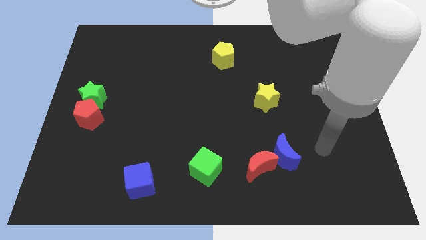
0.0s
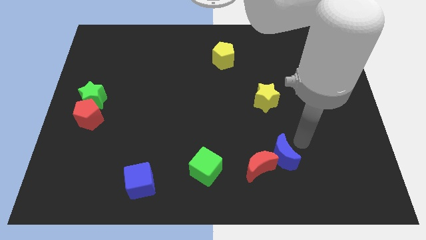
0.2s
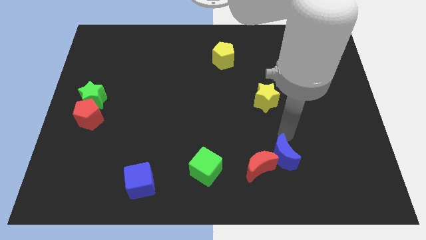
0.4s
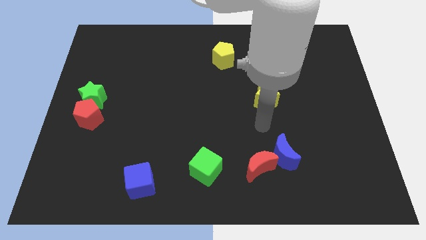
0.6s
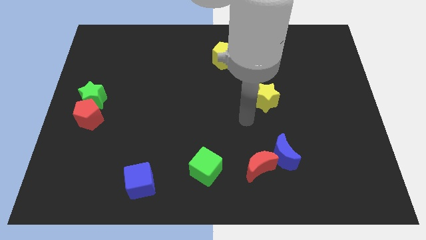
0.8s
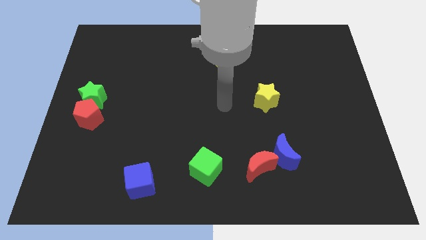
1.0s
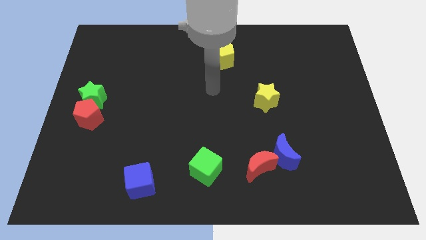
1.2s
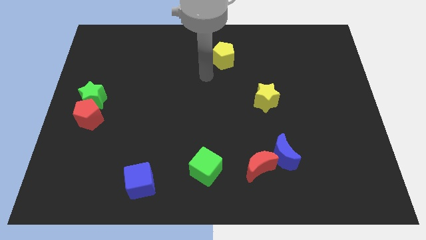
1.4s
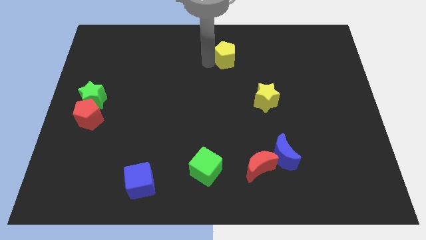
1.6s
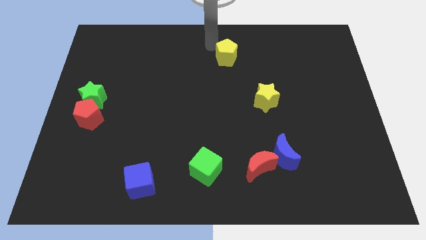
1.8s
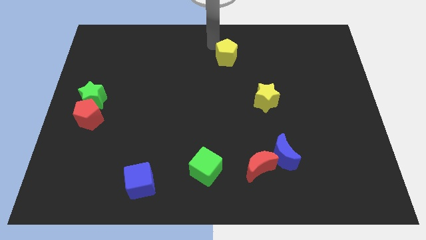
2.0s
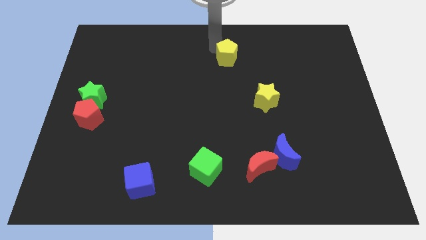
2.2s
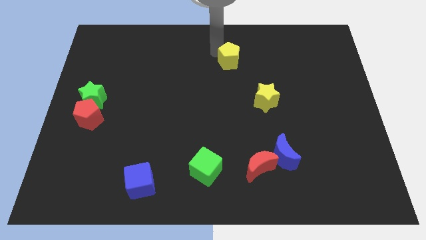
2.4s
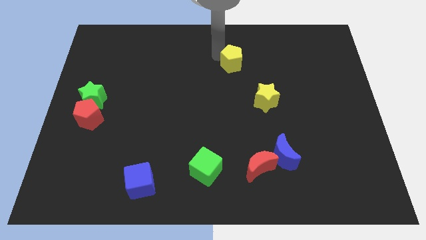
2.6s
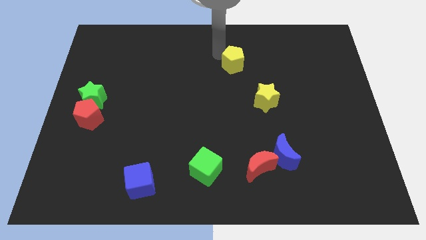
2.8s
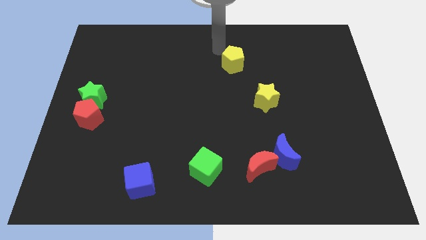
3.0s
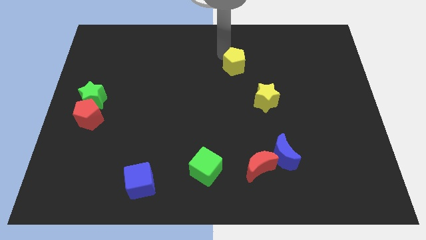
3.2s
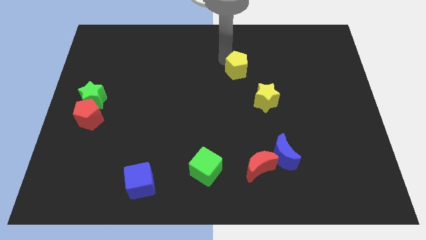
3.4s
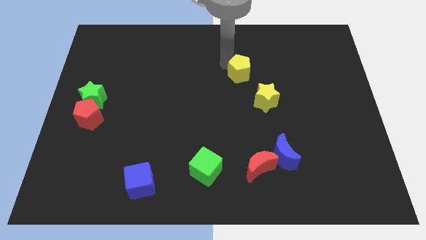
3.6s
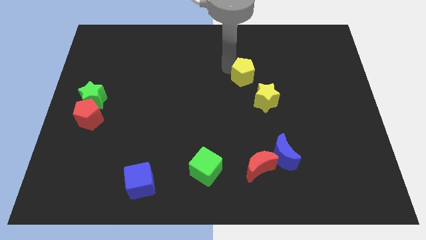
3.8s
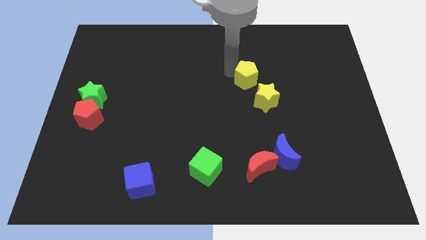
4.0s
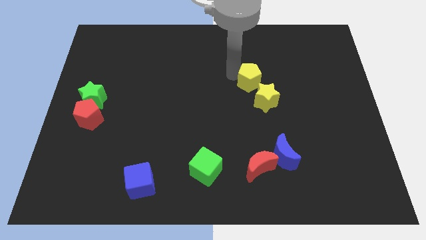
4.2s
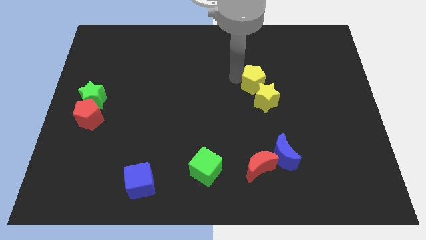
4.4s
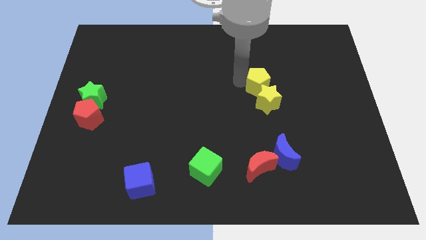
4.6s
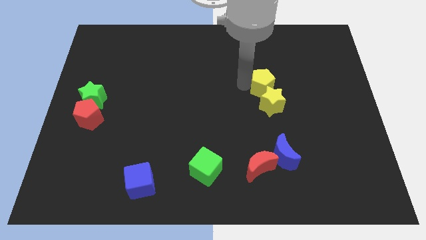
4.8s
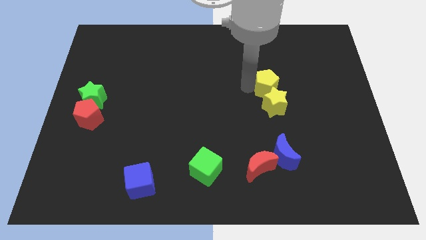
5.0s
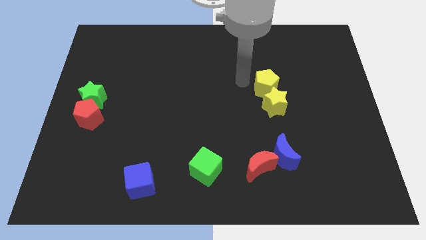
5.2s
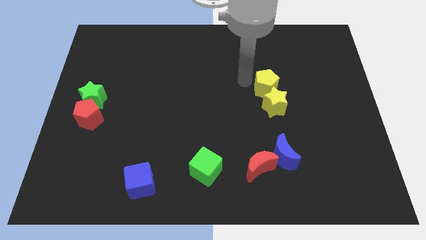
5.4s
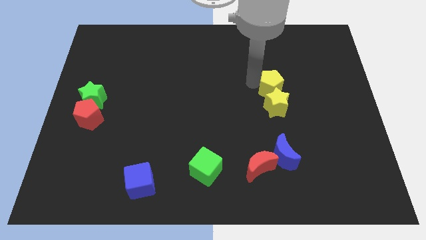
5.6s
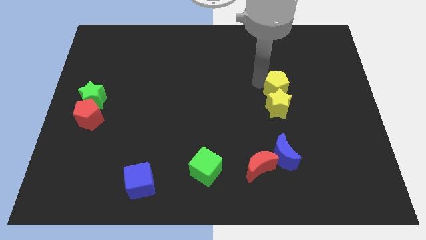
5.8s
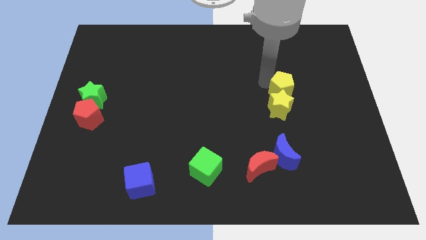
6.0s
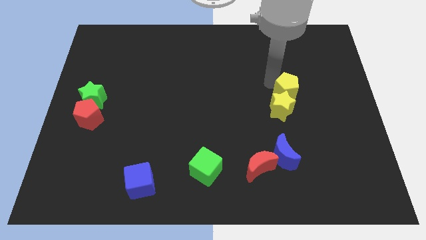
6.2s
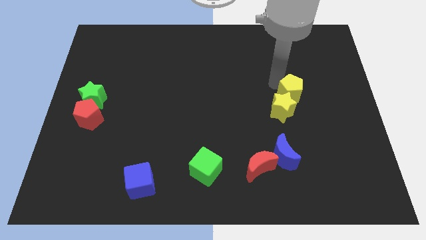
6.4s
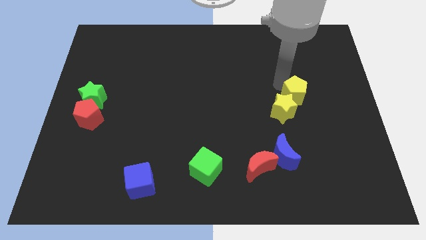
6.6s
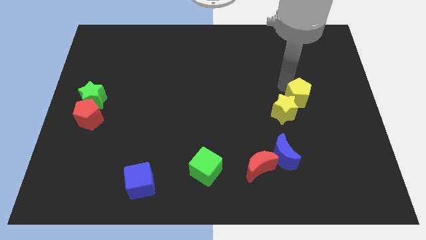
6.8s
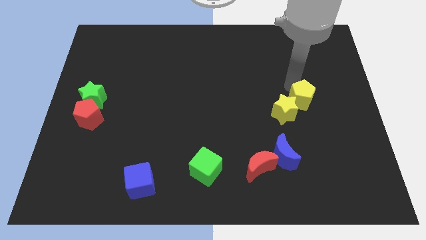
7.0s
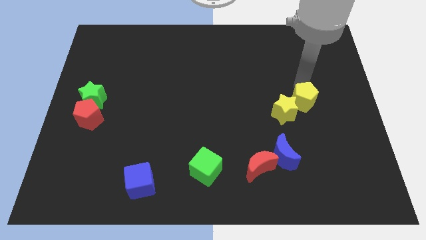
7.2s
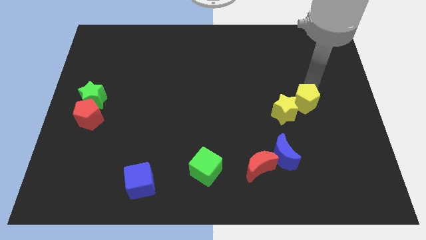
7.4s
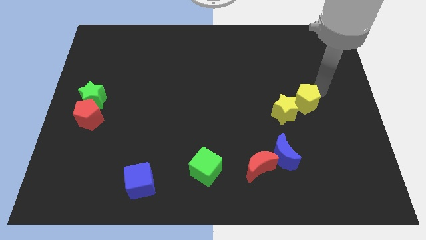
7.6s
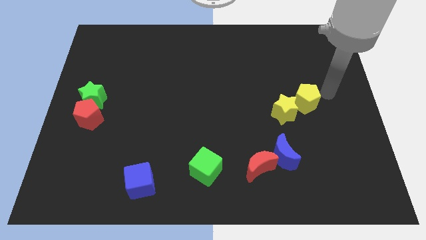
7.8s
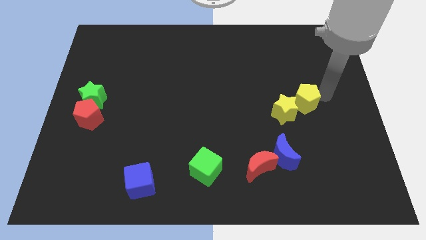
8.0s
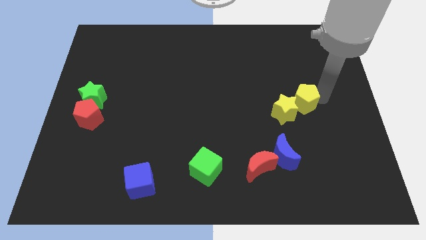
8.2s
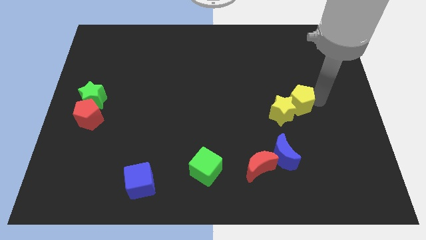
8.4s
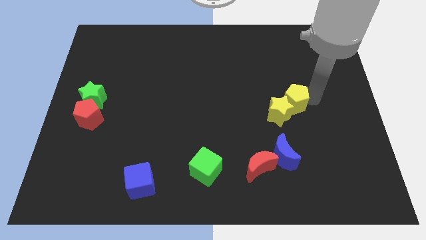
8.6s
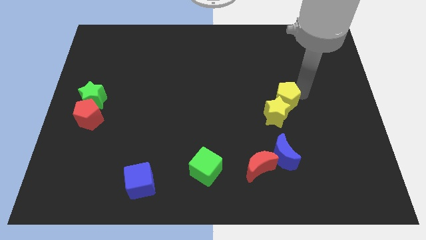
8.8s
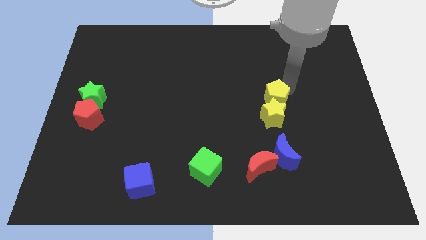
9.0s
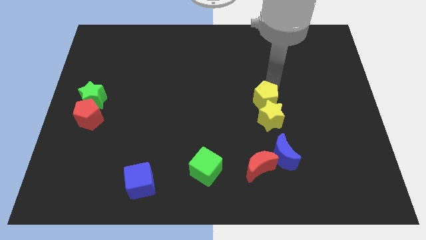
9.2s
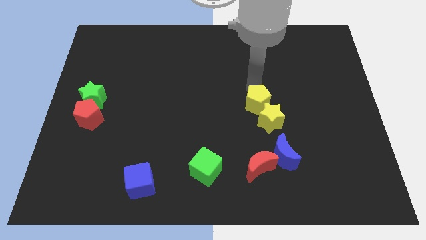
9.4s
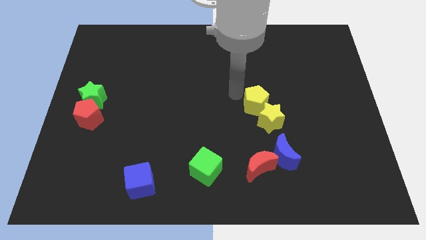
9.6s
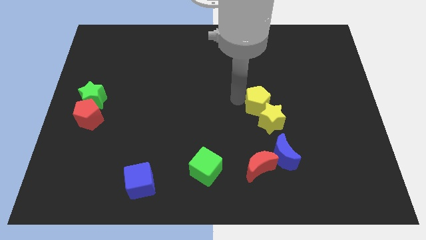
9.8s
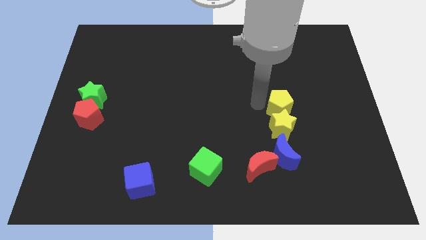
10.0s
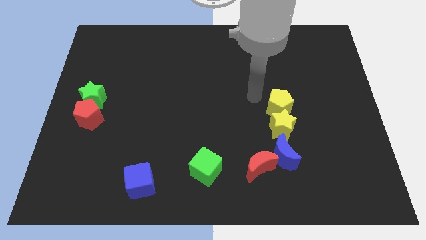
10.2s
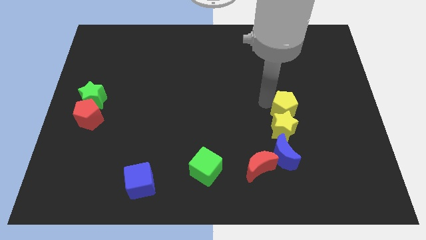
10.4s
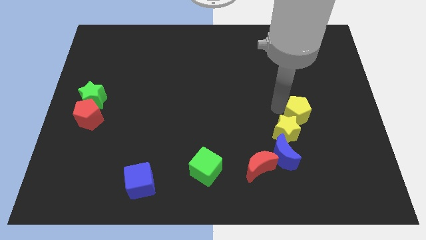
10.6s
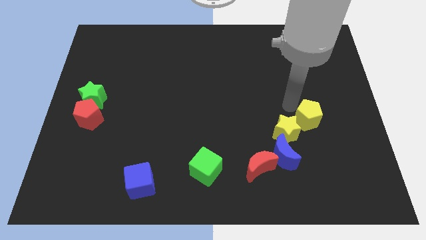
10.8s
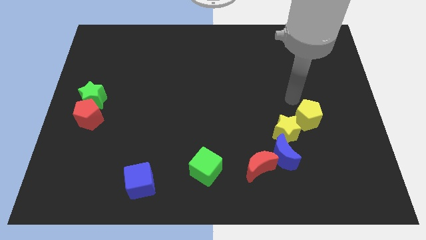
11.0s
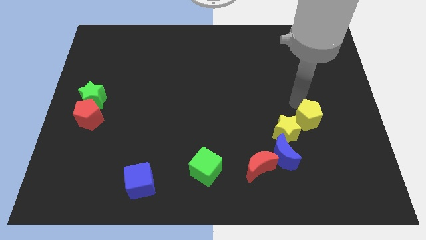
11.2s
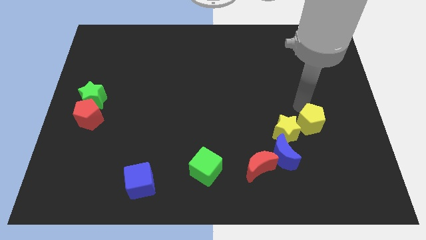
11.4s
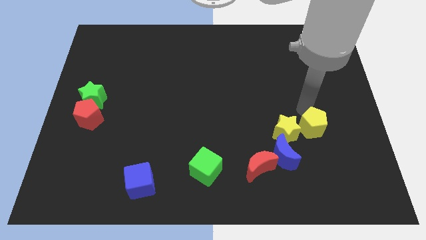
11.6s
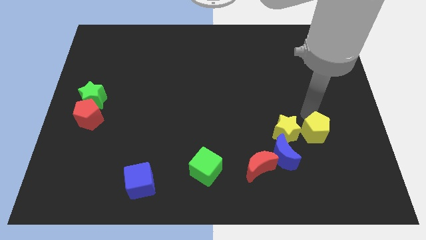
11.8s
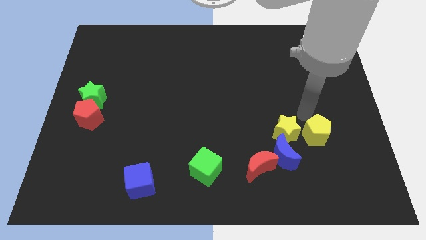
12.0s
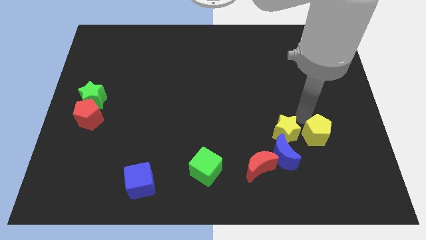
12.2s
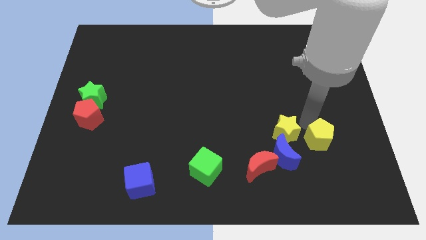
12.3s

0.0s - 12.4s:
push the yellow pentagon right of the blue moon

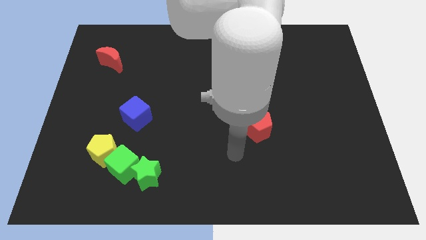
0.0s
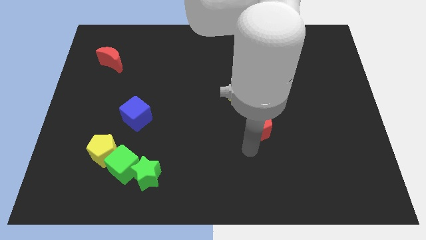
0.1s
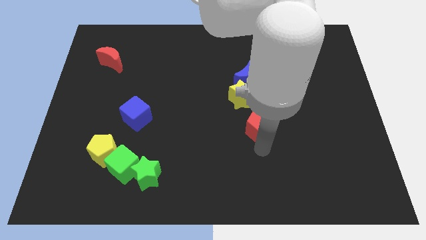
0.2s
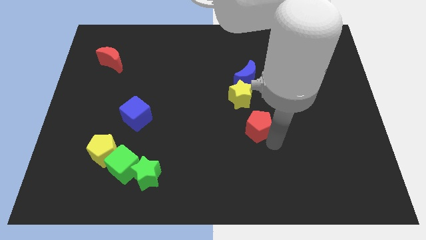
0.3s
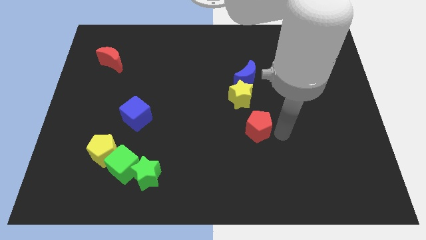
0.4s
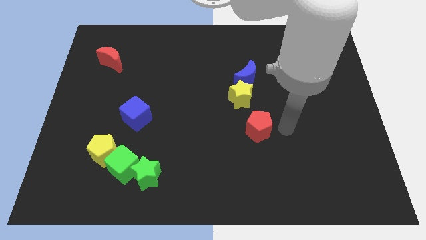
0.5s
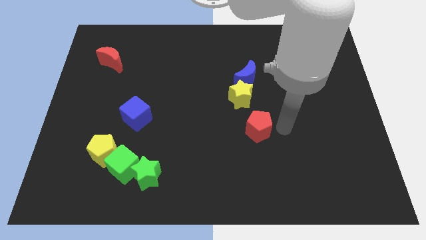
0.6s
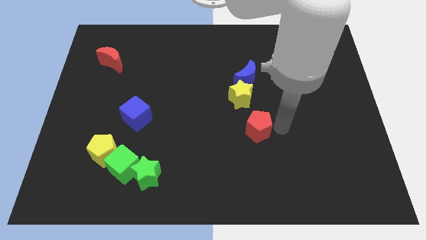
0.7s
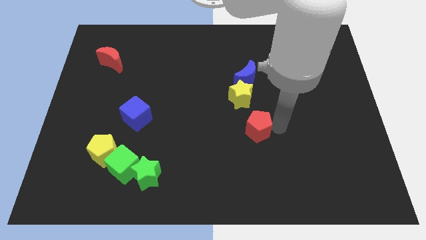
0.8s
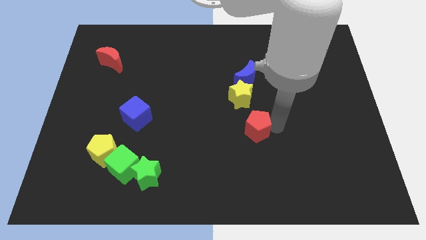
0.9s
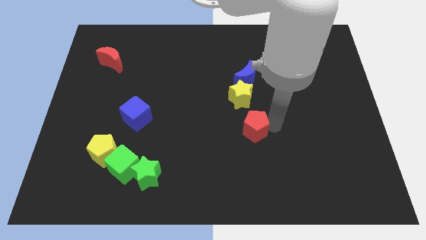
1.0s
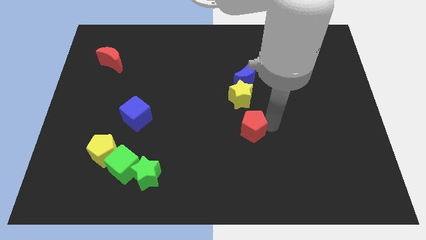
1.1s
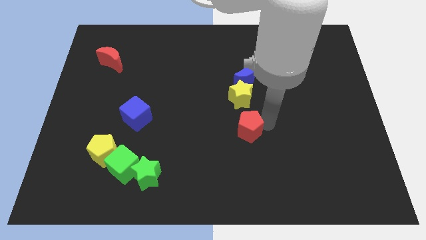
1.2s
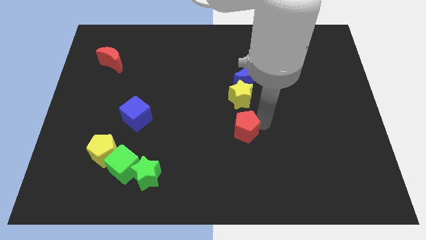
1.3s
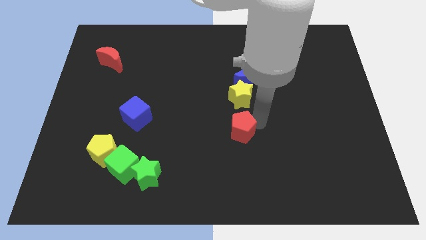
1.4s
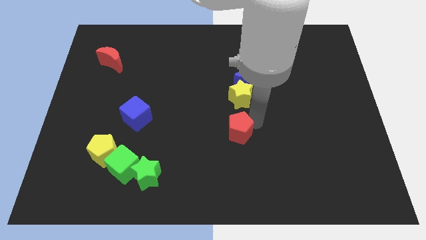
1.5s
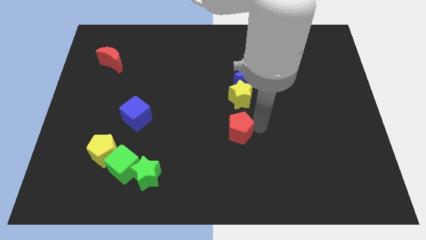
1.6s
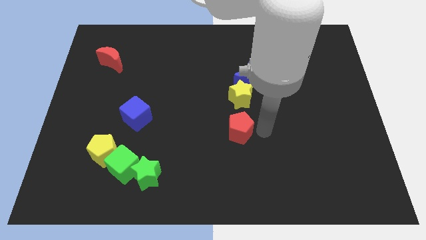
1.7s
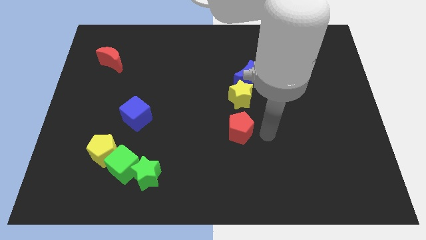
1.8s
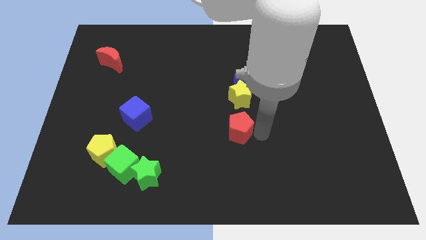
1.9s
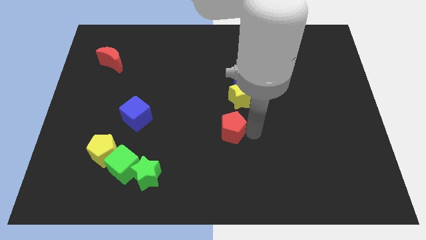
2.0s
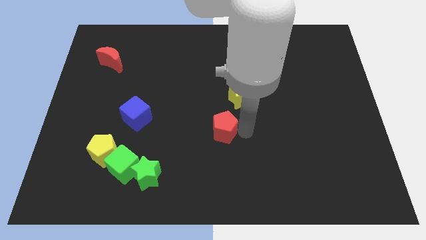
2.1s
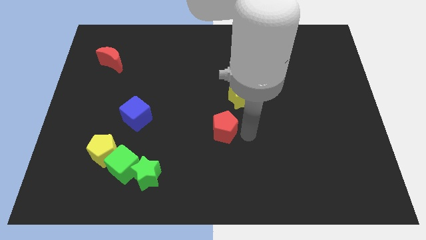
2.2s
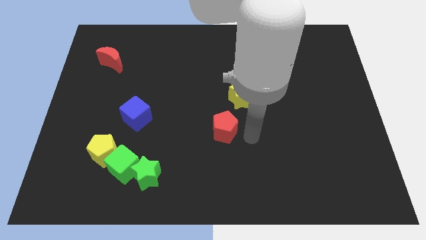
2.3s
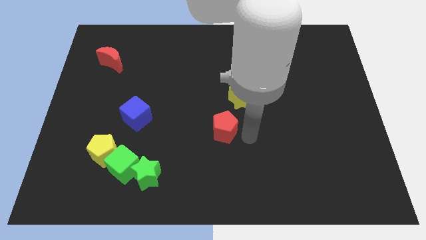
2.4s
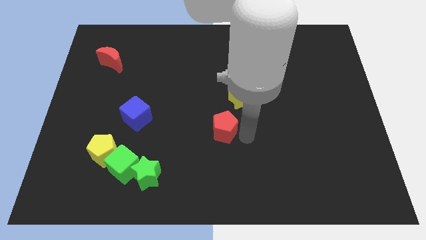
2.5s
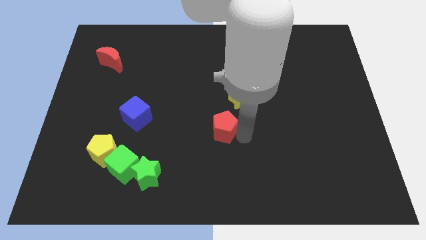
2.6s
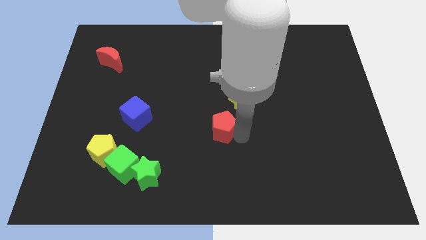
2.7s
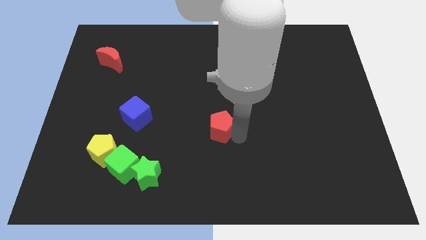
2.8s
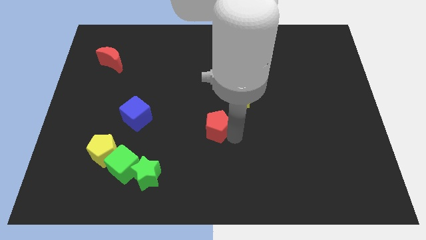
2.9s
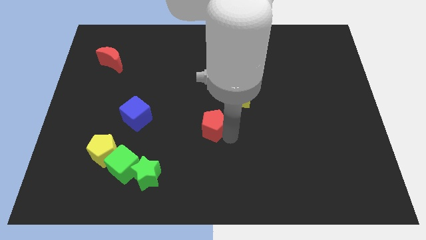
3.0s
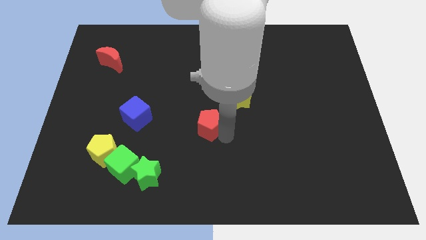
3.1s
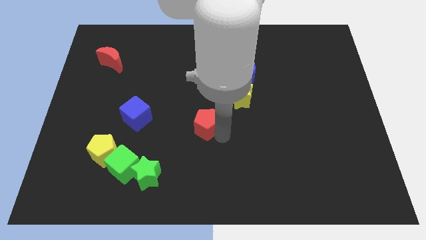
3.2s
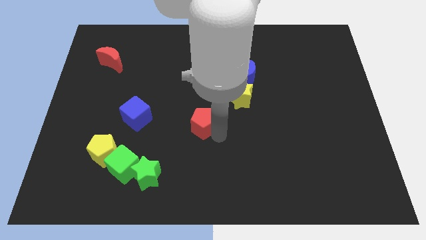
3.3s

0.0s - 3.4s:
move the red pentagon right of the blue cube
